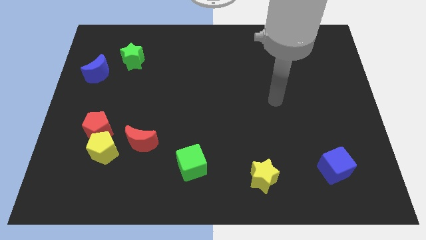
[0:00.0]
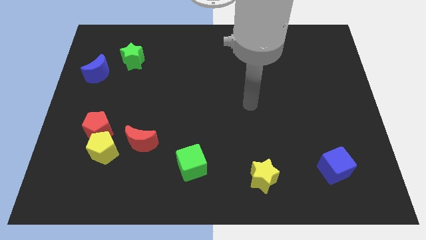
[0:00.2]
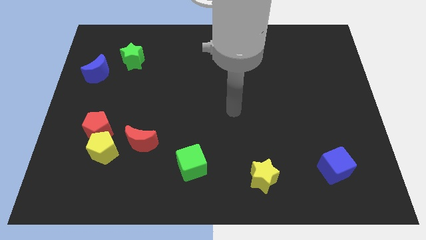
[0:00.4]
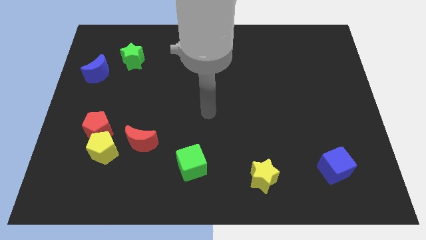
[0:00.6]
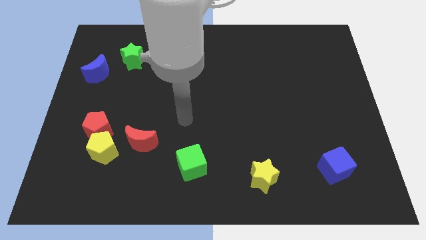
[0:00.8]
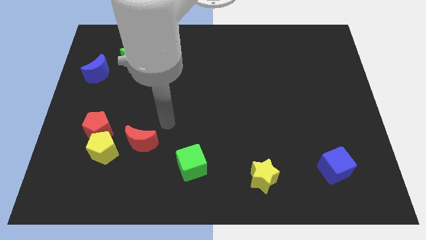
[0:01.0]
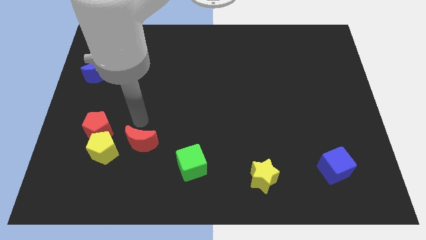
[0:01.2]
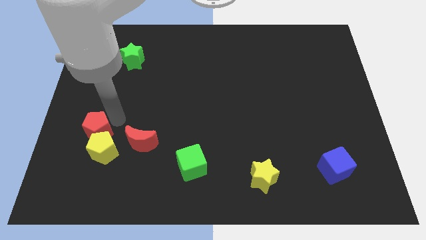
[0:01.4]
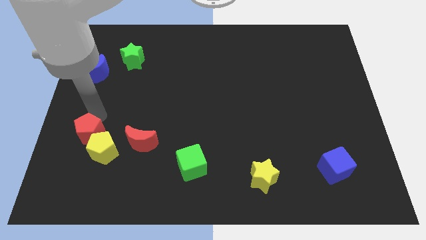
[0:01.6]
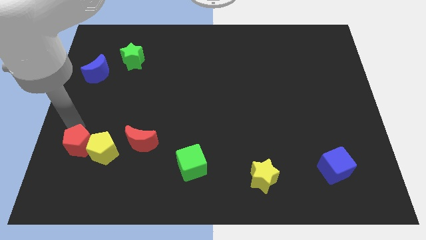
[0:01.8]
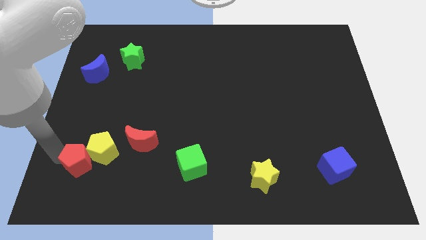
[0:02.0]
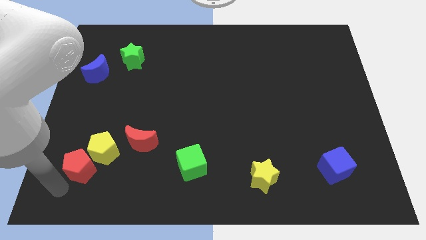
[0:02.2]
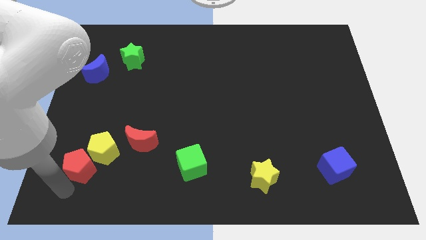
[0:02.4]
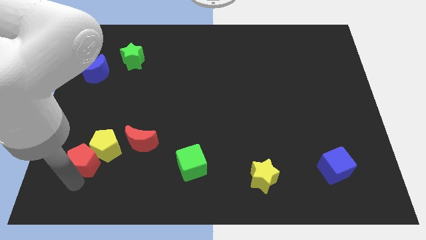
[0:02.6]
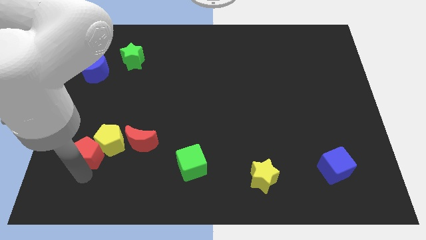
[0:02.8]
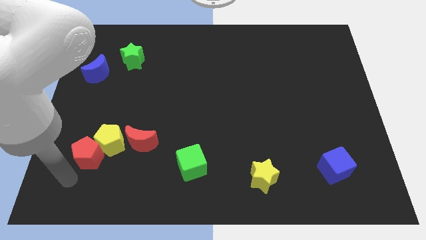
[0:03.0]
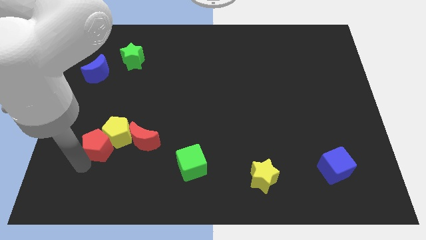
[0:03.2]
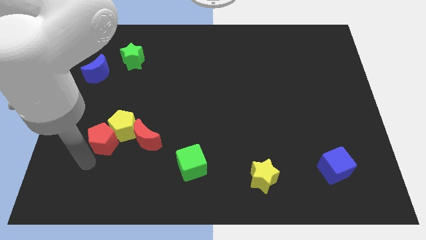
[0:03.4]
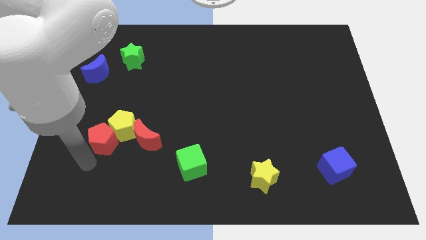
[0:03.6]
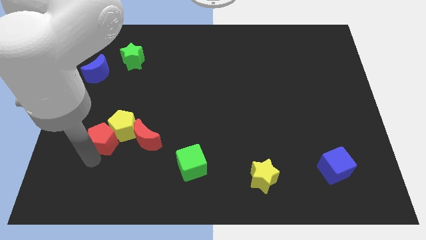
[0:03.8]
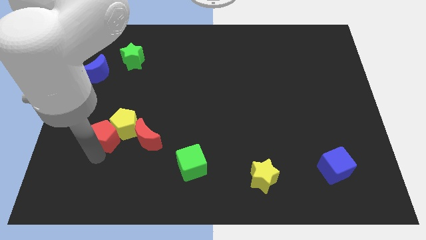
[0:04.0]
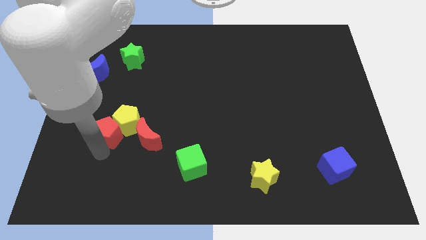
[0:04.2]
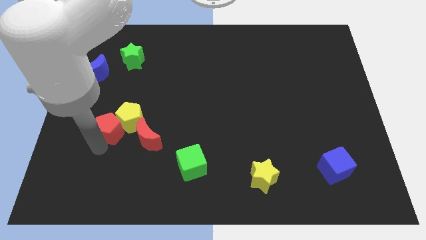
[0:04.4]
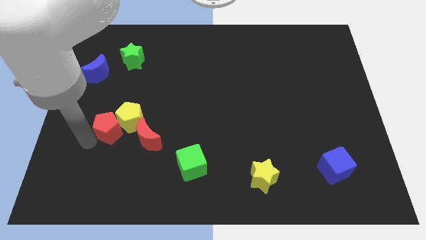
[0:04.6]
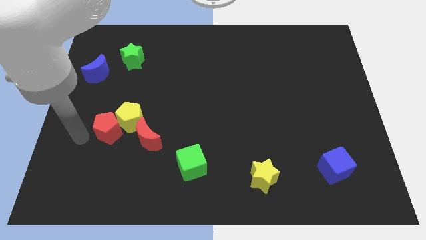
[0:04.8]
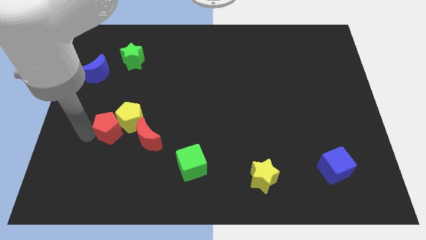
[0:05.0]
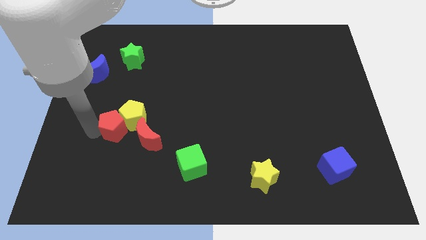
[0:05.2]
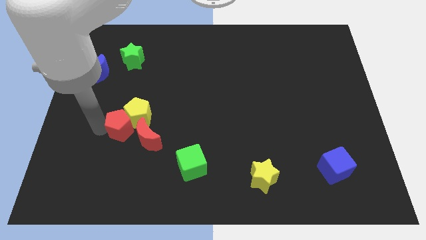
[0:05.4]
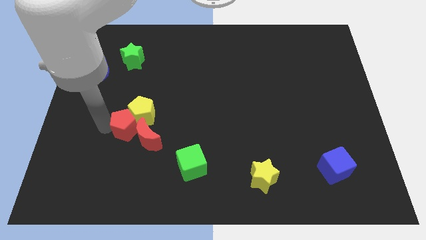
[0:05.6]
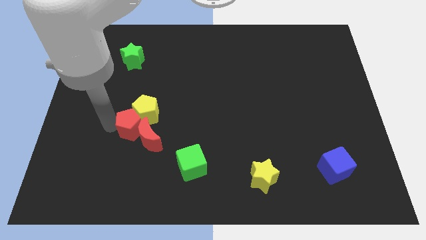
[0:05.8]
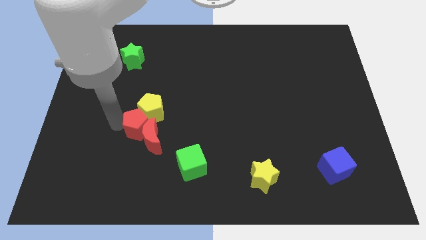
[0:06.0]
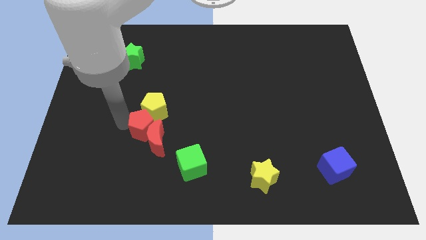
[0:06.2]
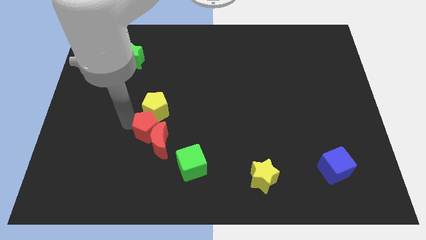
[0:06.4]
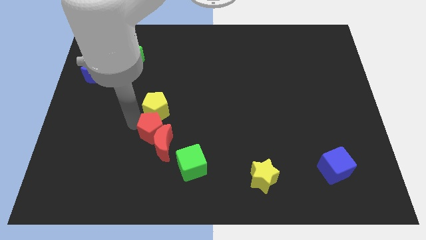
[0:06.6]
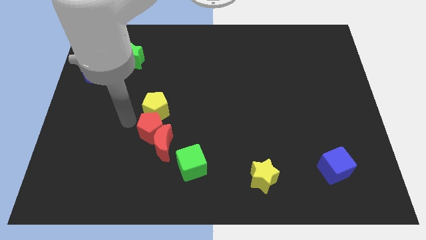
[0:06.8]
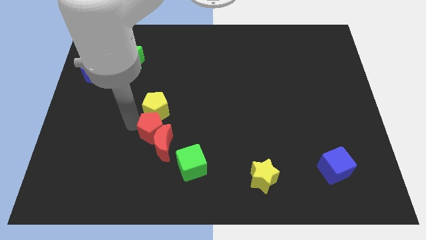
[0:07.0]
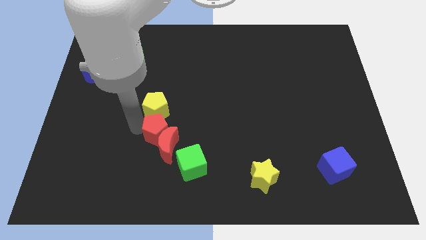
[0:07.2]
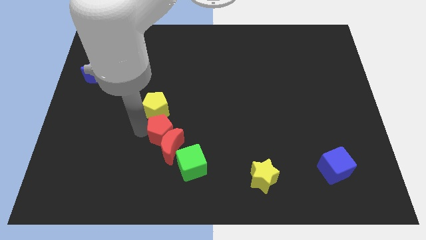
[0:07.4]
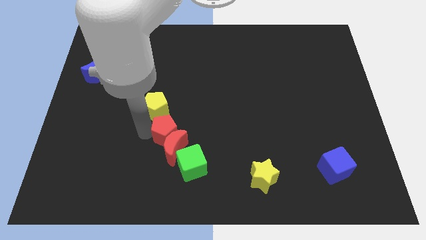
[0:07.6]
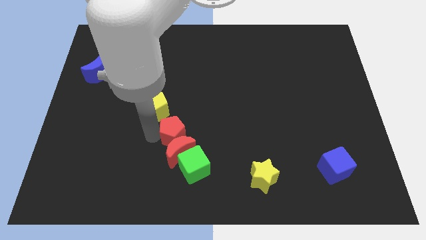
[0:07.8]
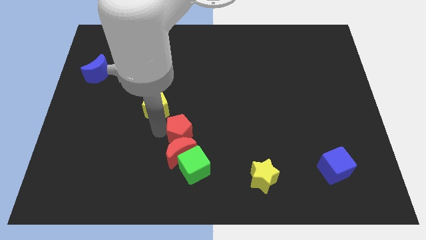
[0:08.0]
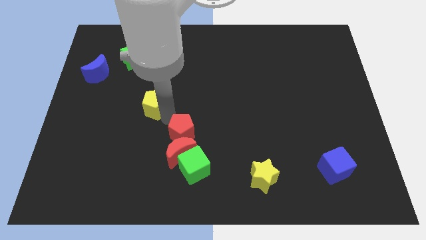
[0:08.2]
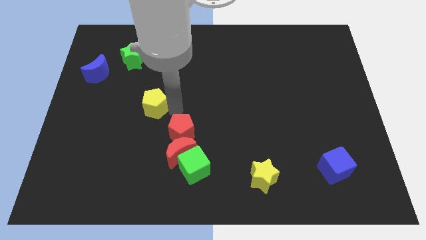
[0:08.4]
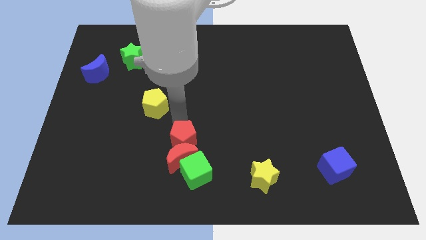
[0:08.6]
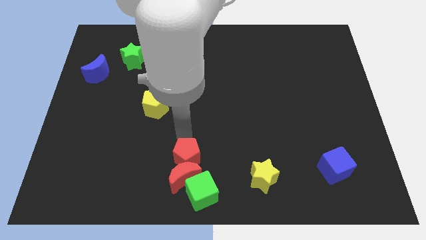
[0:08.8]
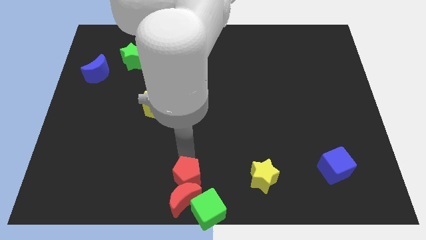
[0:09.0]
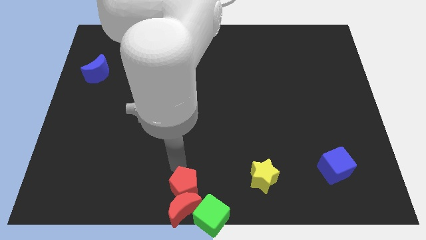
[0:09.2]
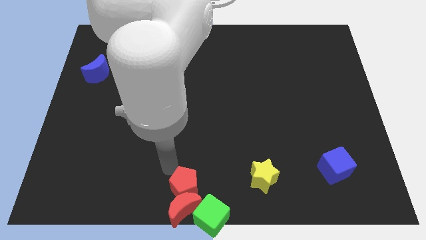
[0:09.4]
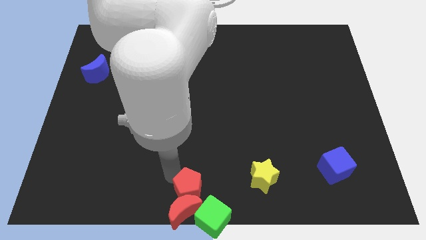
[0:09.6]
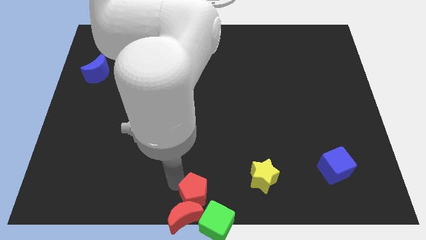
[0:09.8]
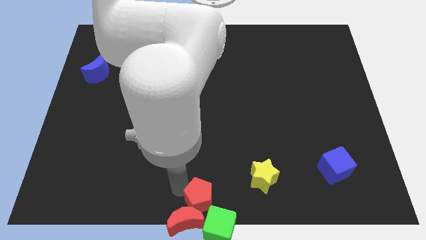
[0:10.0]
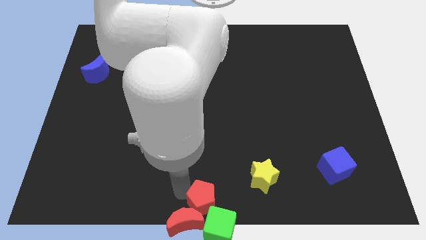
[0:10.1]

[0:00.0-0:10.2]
move the red pentagon next to the green cube

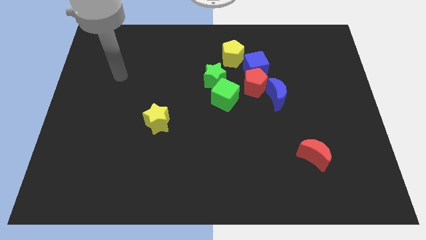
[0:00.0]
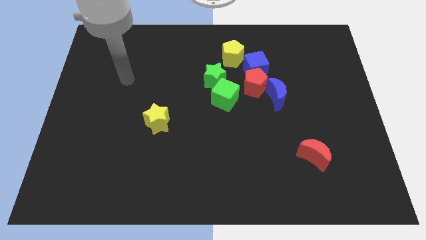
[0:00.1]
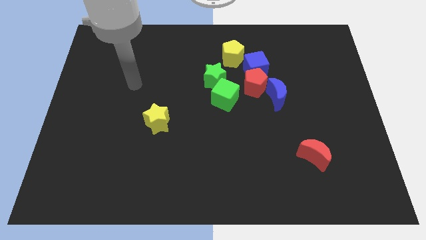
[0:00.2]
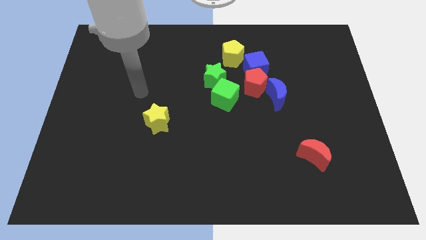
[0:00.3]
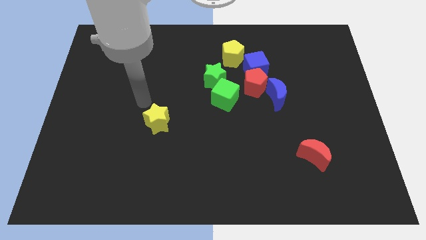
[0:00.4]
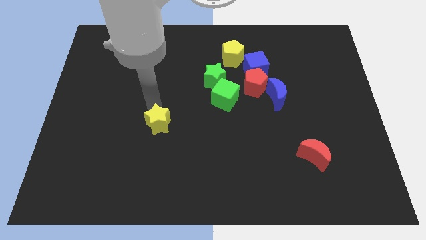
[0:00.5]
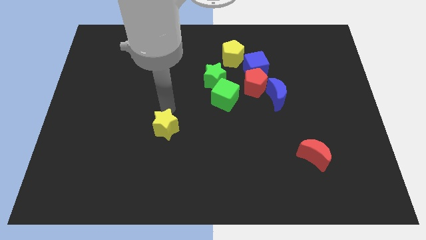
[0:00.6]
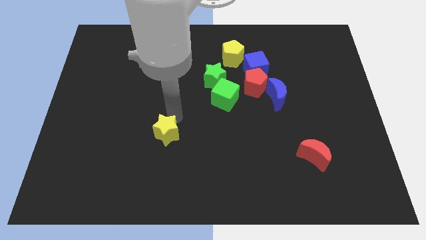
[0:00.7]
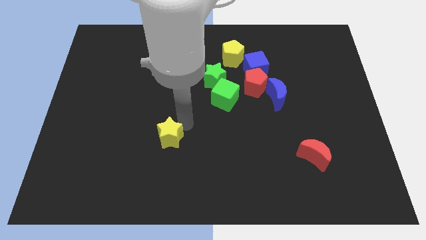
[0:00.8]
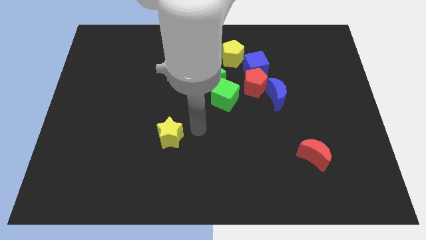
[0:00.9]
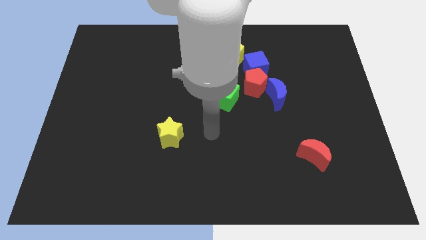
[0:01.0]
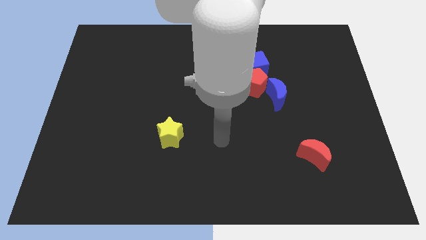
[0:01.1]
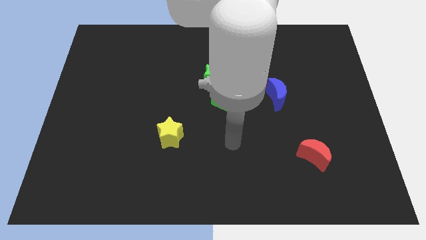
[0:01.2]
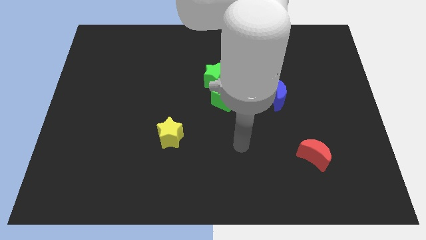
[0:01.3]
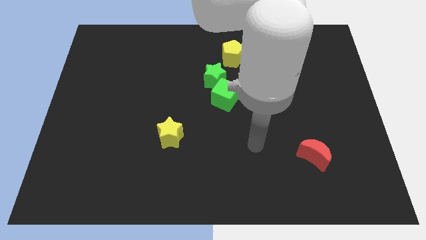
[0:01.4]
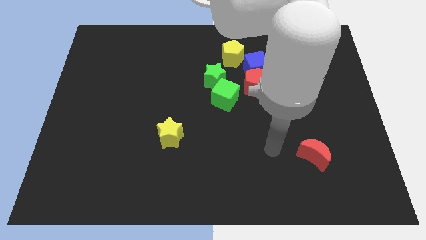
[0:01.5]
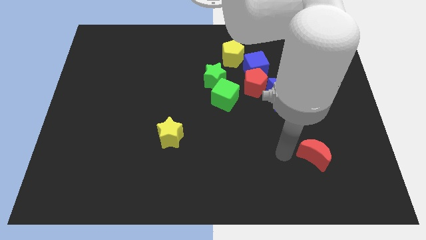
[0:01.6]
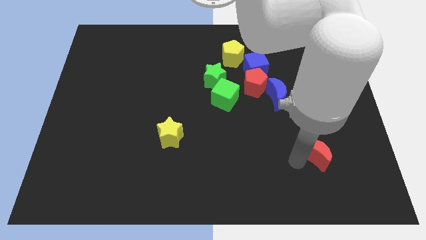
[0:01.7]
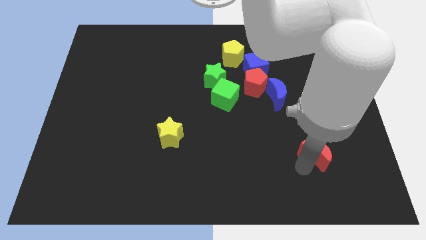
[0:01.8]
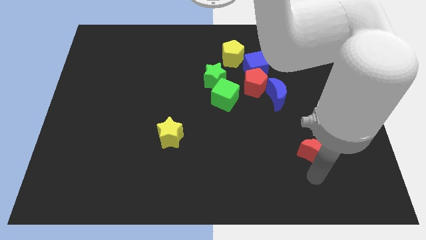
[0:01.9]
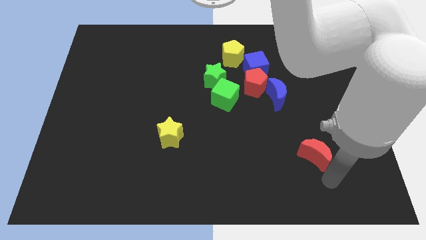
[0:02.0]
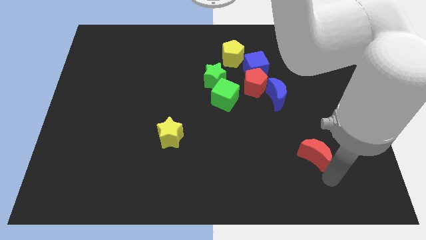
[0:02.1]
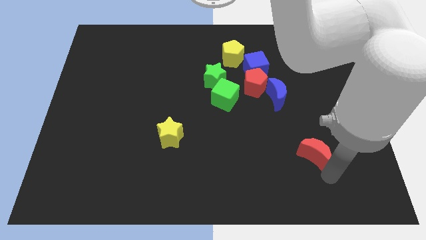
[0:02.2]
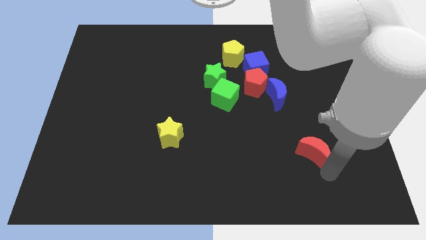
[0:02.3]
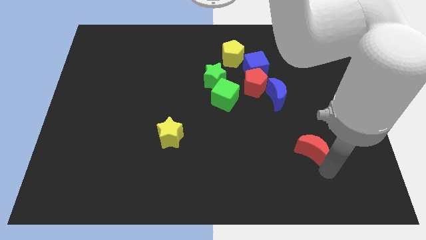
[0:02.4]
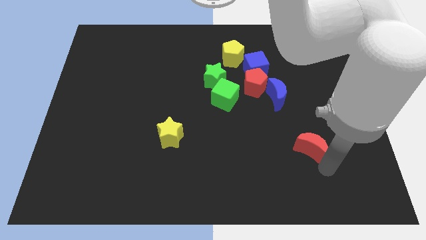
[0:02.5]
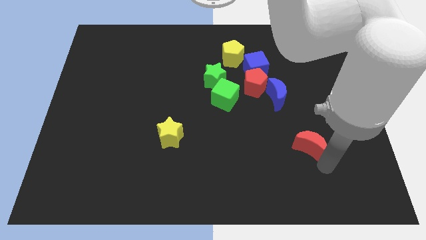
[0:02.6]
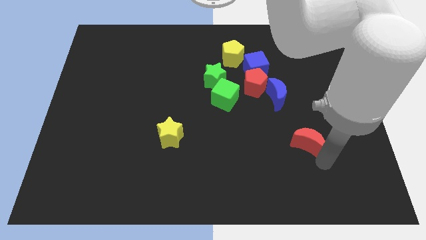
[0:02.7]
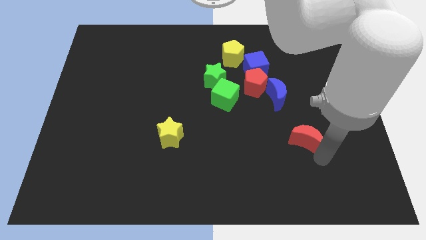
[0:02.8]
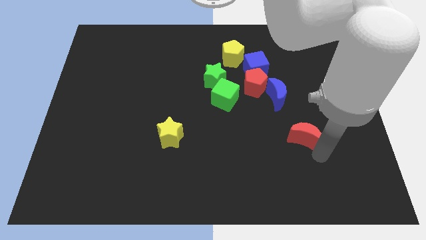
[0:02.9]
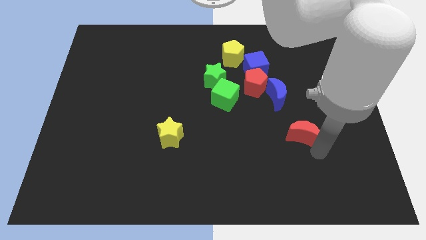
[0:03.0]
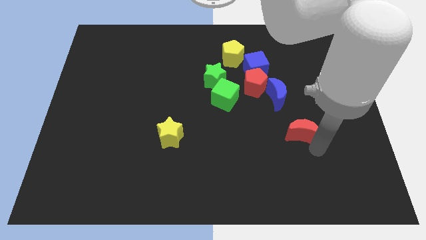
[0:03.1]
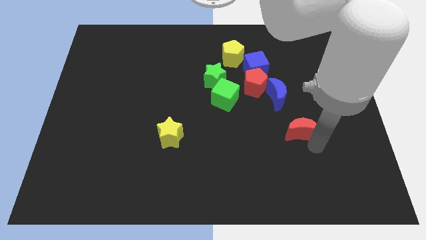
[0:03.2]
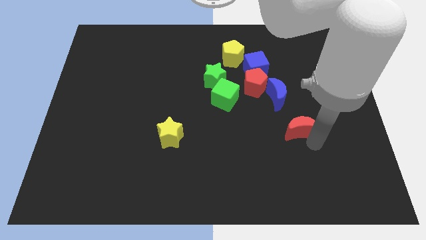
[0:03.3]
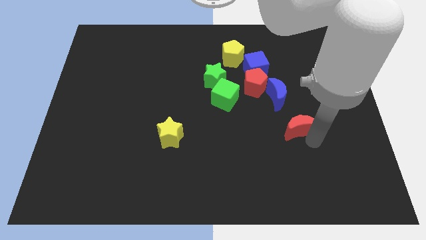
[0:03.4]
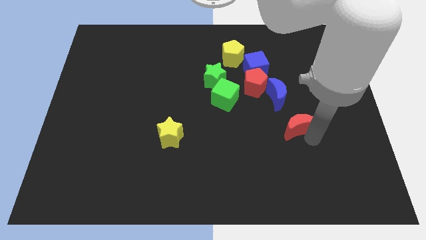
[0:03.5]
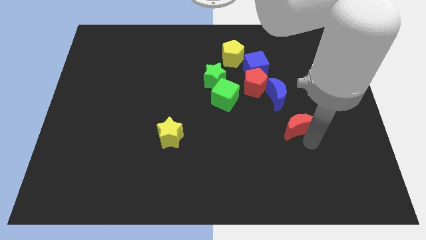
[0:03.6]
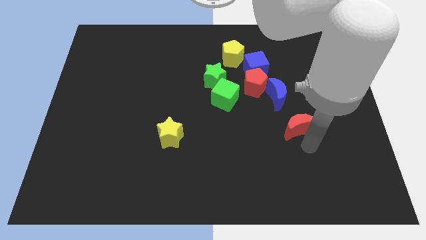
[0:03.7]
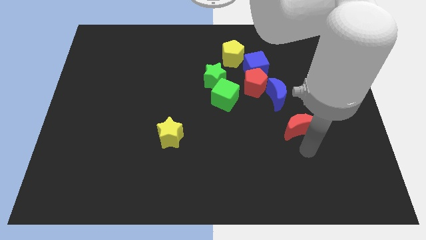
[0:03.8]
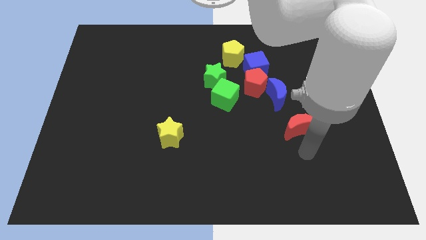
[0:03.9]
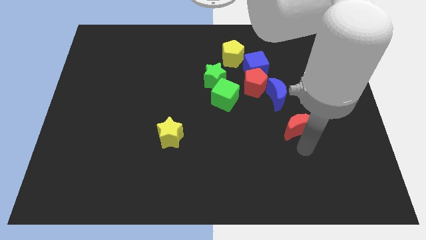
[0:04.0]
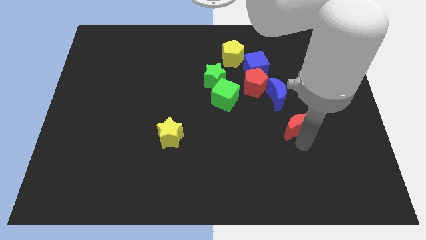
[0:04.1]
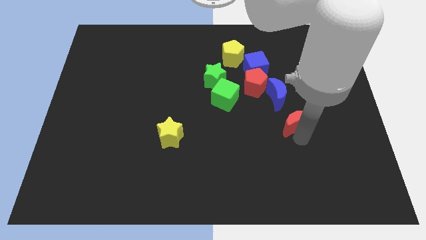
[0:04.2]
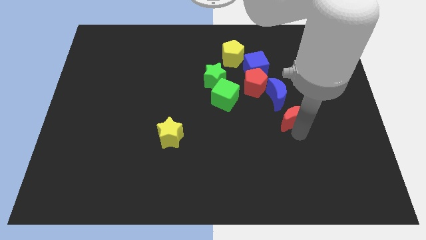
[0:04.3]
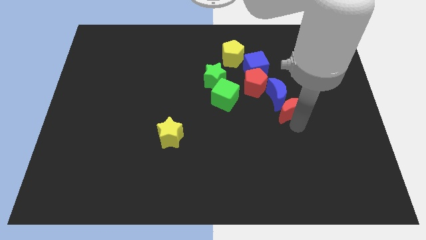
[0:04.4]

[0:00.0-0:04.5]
move the red moon to the blue moon
